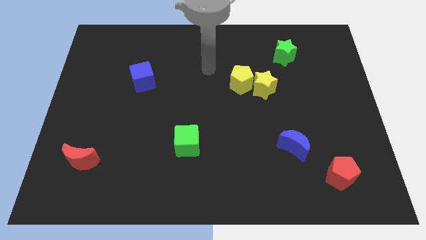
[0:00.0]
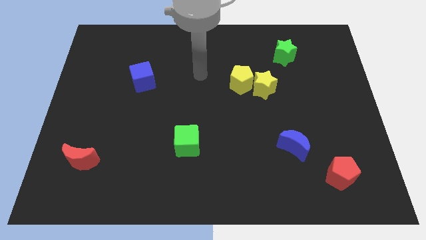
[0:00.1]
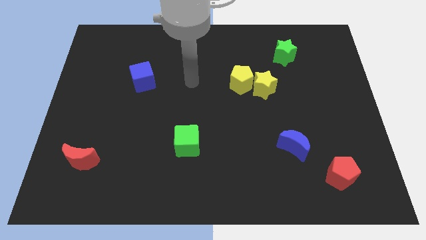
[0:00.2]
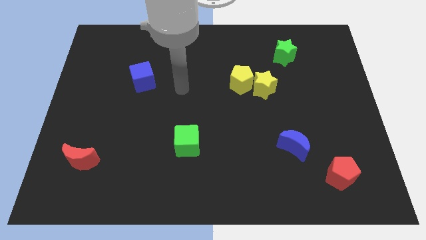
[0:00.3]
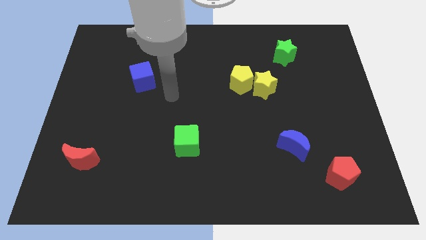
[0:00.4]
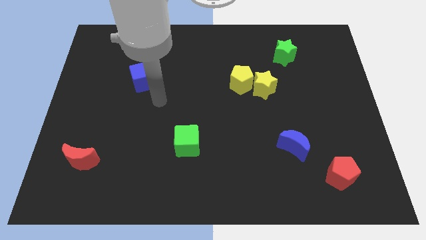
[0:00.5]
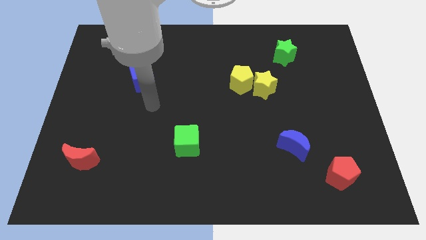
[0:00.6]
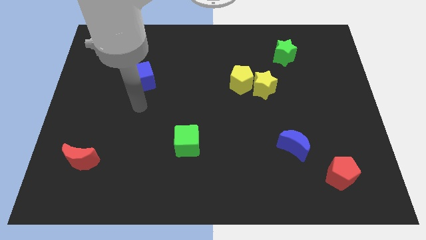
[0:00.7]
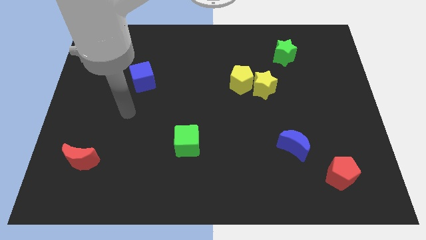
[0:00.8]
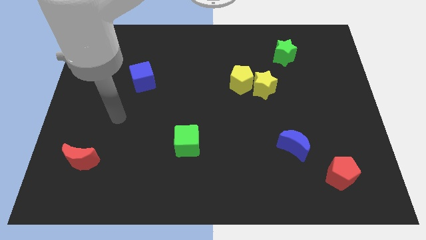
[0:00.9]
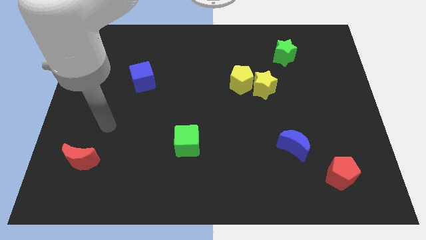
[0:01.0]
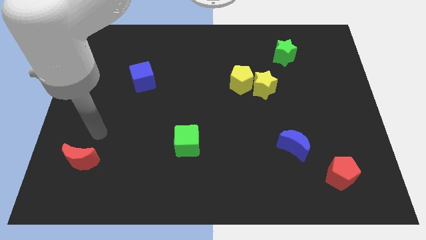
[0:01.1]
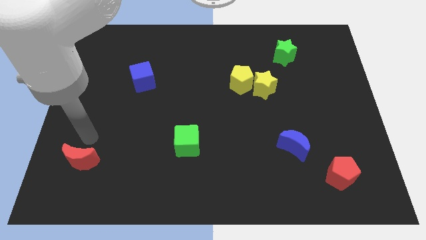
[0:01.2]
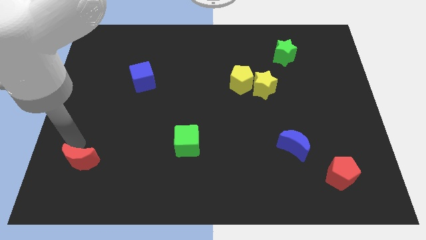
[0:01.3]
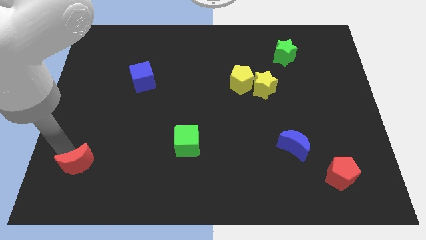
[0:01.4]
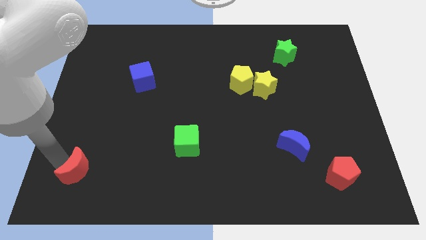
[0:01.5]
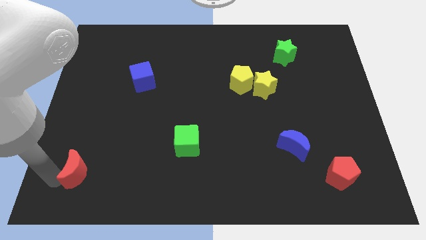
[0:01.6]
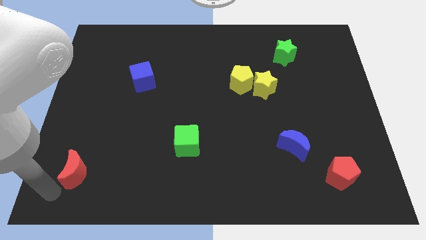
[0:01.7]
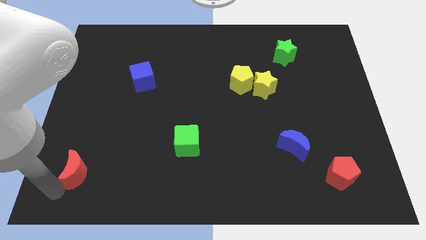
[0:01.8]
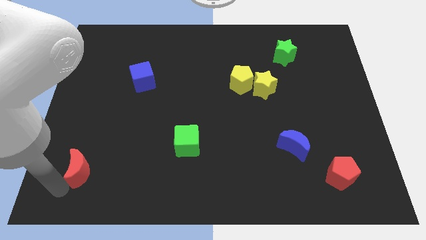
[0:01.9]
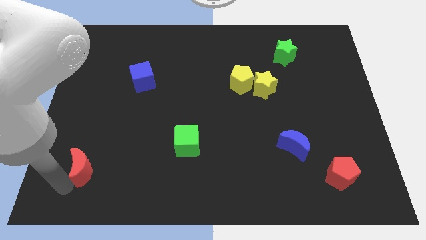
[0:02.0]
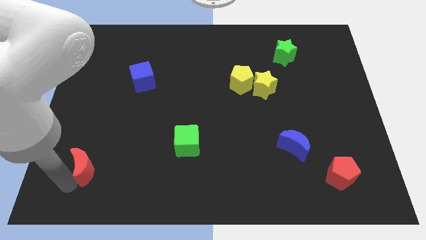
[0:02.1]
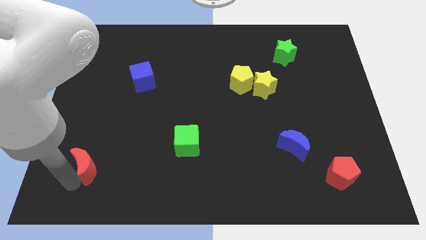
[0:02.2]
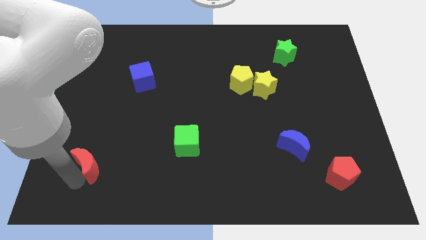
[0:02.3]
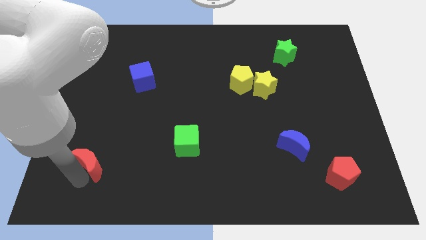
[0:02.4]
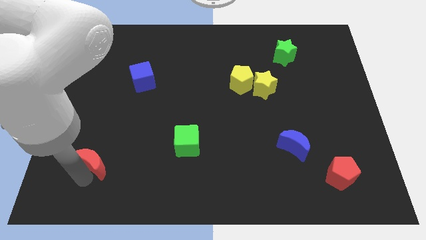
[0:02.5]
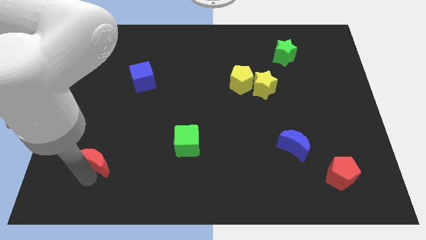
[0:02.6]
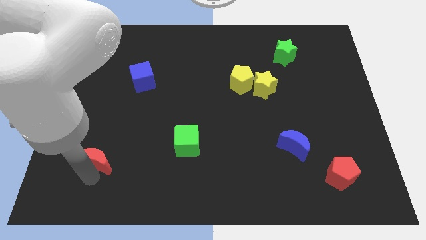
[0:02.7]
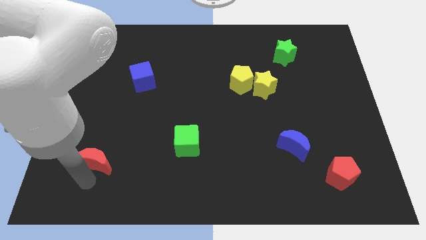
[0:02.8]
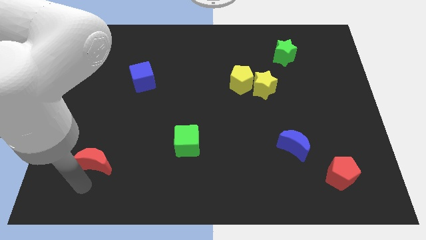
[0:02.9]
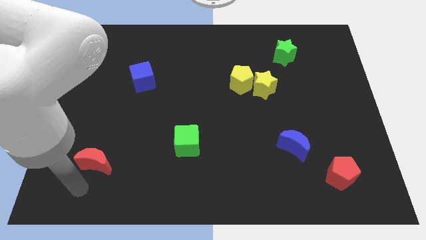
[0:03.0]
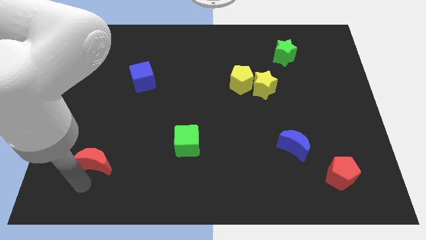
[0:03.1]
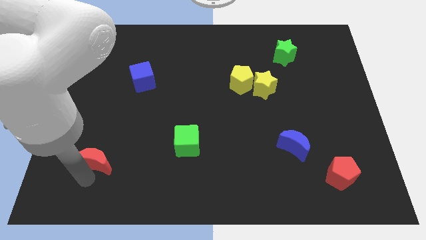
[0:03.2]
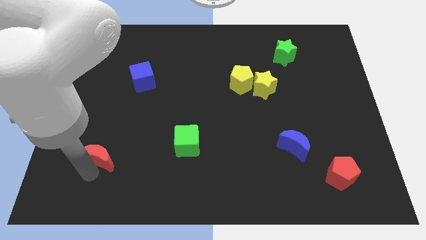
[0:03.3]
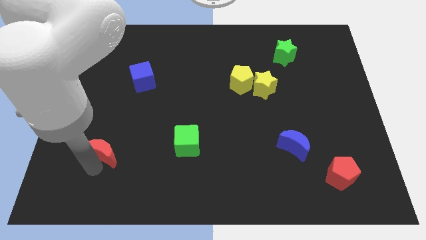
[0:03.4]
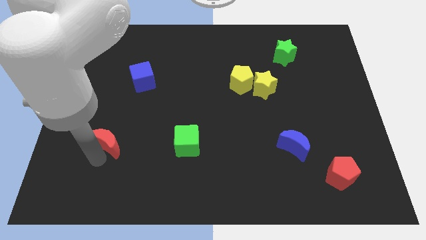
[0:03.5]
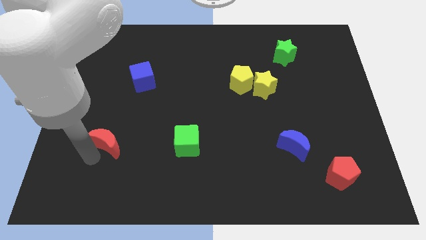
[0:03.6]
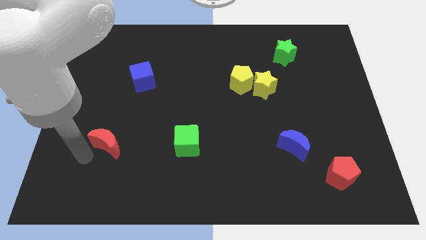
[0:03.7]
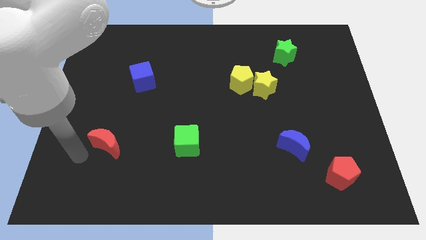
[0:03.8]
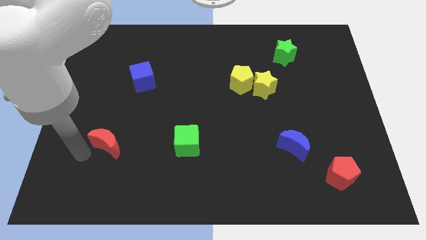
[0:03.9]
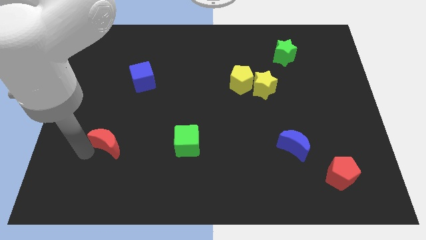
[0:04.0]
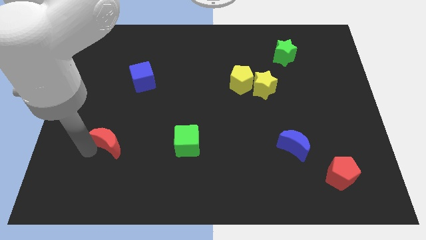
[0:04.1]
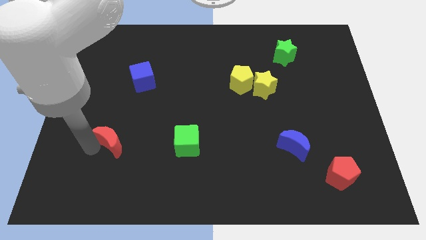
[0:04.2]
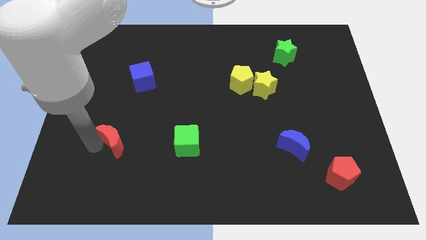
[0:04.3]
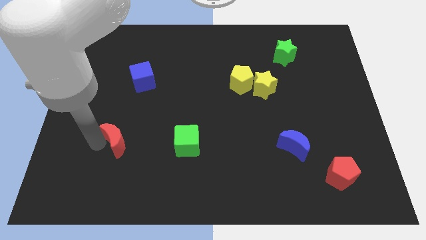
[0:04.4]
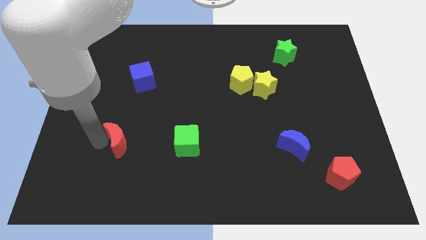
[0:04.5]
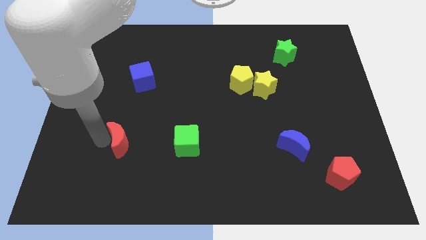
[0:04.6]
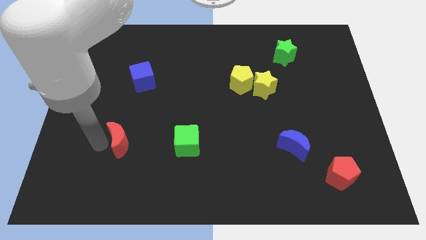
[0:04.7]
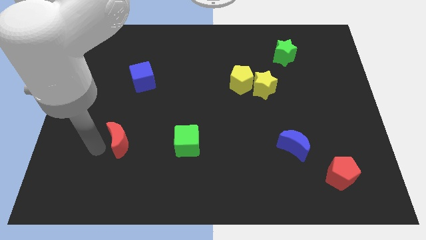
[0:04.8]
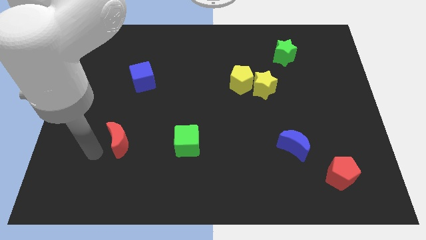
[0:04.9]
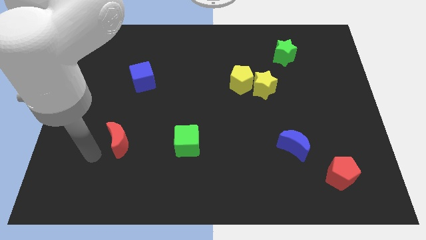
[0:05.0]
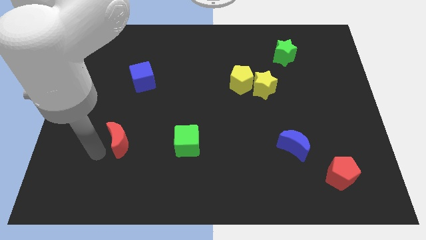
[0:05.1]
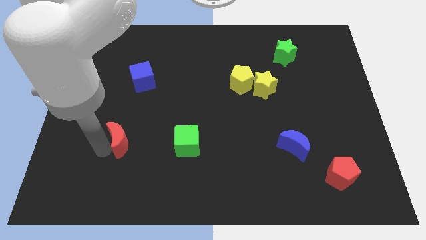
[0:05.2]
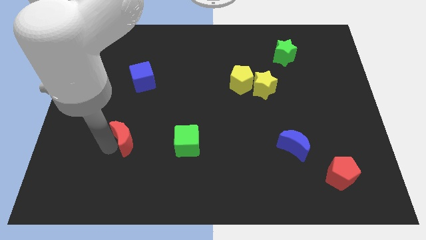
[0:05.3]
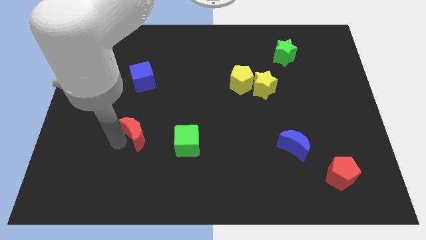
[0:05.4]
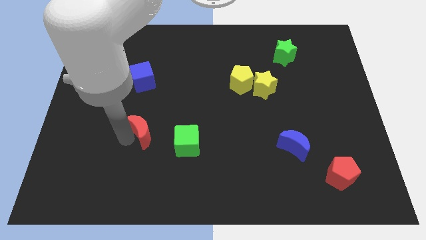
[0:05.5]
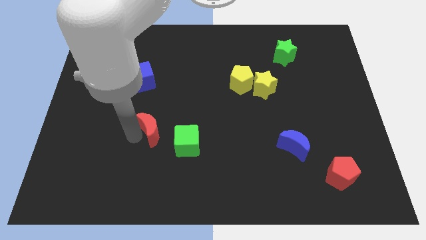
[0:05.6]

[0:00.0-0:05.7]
push the red moon to the top left of the green cube

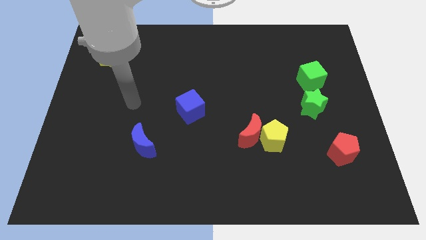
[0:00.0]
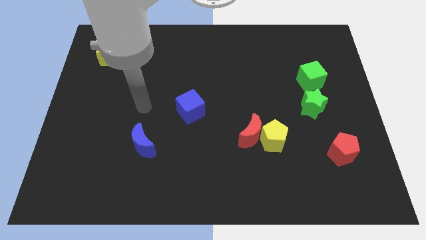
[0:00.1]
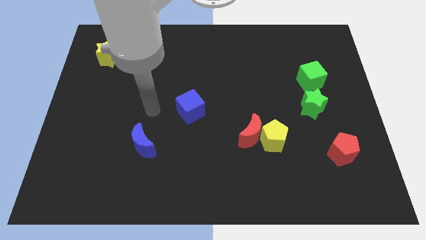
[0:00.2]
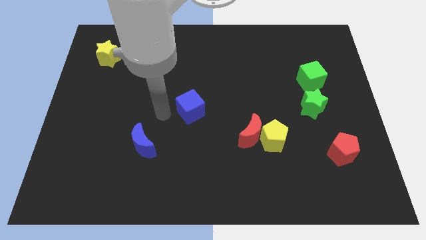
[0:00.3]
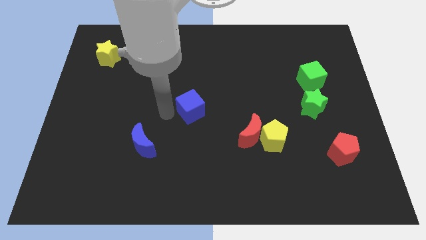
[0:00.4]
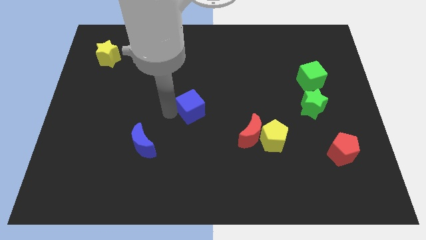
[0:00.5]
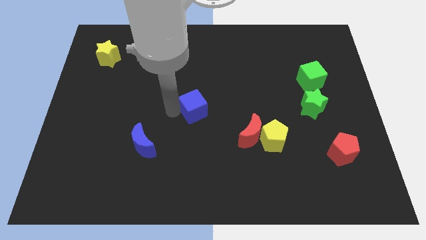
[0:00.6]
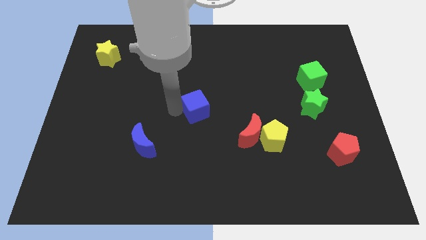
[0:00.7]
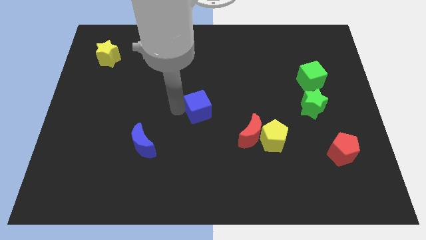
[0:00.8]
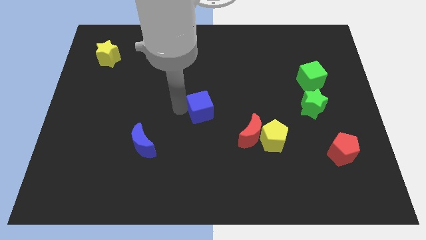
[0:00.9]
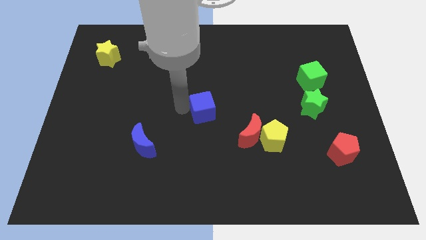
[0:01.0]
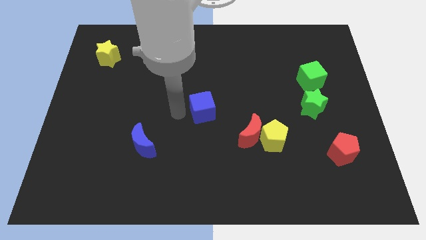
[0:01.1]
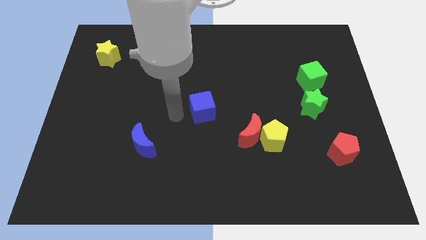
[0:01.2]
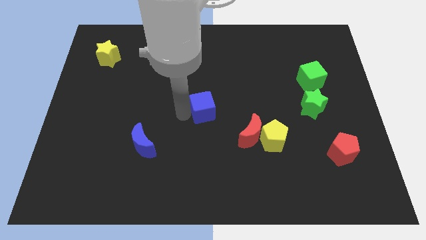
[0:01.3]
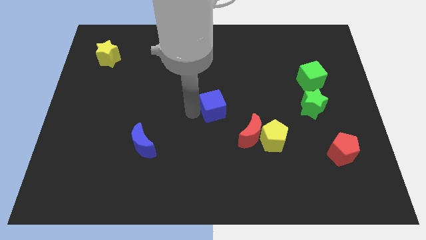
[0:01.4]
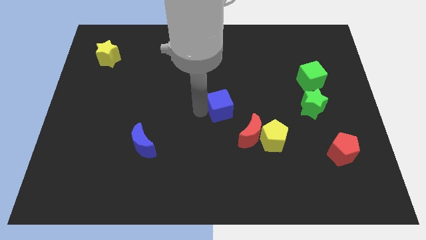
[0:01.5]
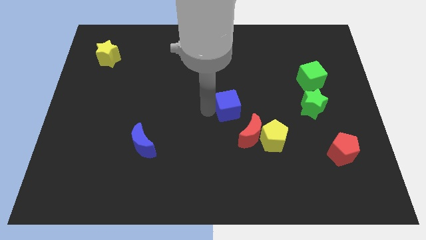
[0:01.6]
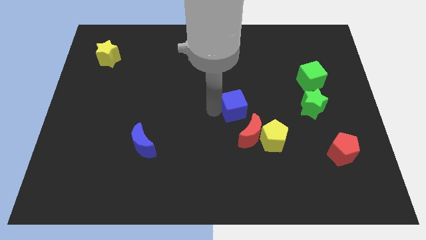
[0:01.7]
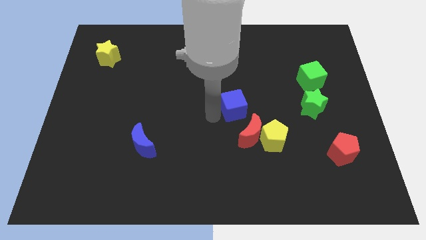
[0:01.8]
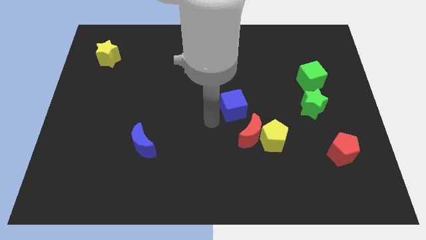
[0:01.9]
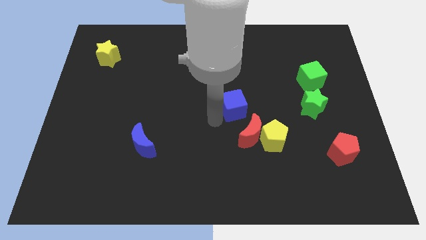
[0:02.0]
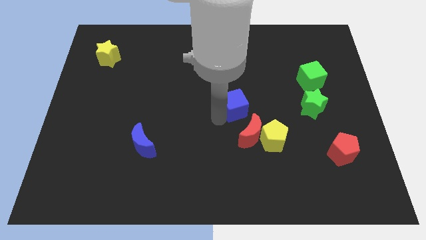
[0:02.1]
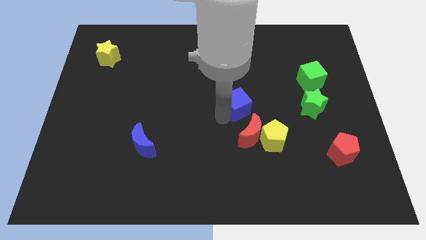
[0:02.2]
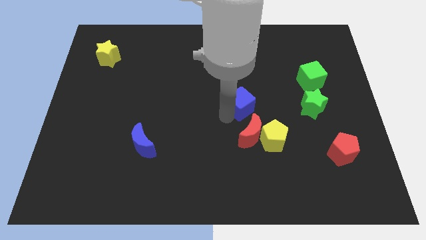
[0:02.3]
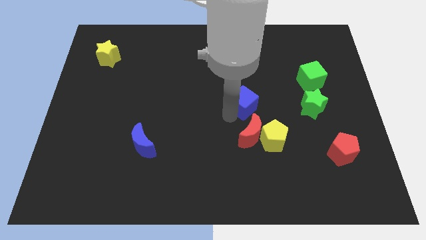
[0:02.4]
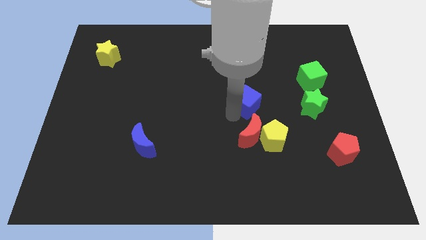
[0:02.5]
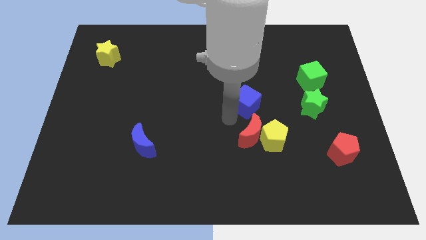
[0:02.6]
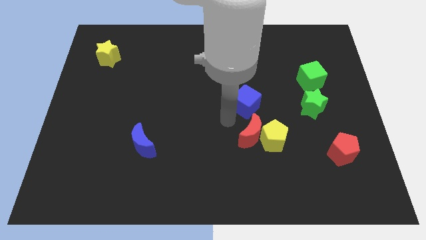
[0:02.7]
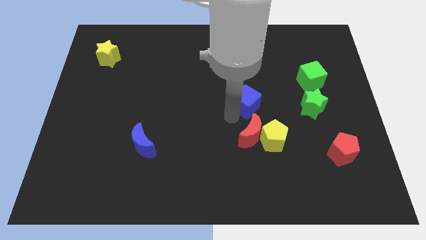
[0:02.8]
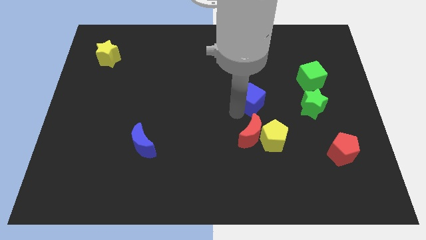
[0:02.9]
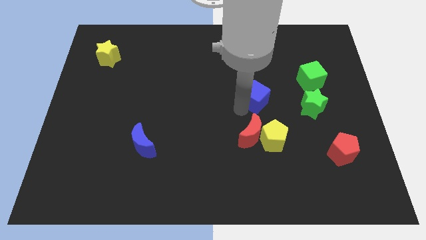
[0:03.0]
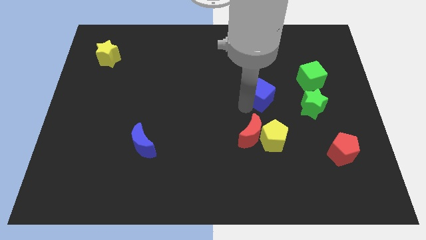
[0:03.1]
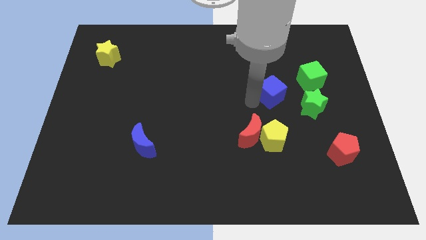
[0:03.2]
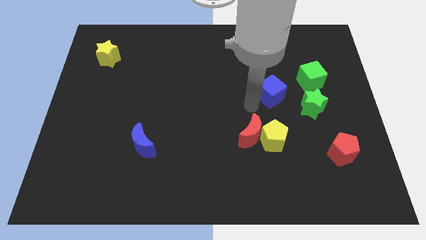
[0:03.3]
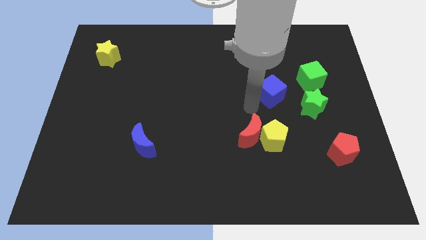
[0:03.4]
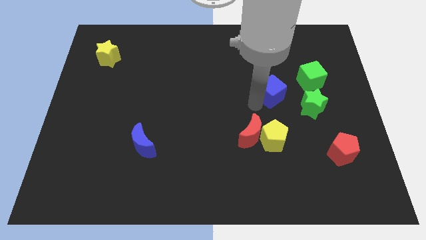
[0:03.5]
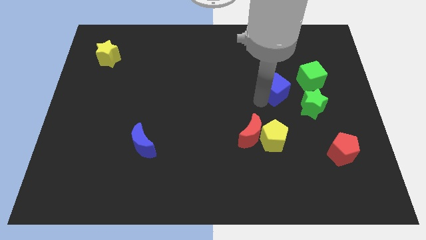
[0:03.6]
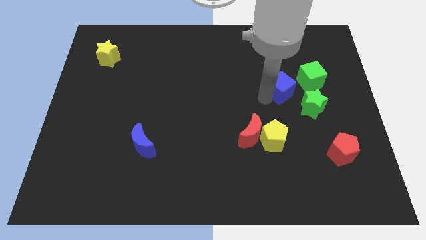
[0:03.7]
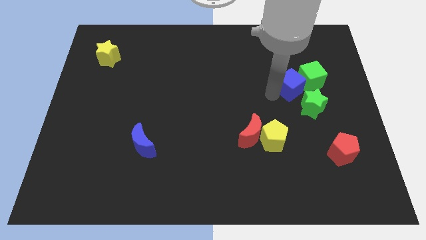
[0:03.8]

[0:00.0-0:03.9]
slide the blue cube to the top of the green star
